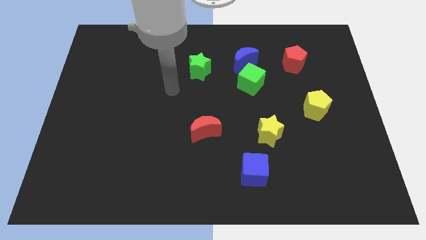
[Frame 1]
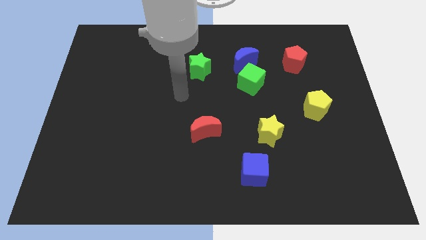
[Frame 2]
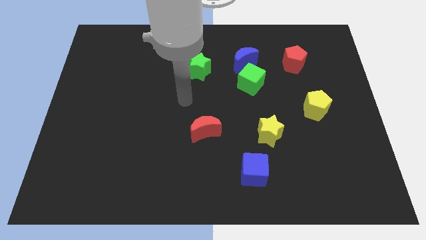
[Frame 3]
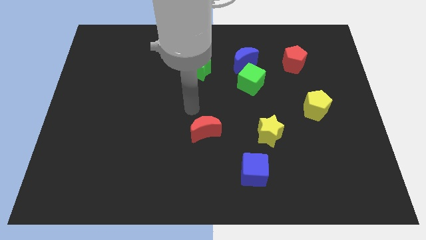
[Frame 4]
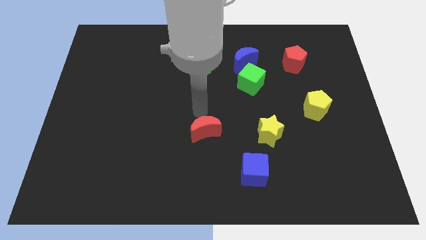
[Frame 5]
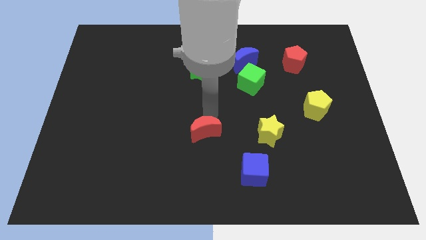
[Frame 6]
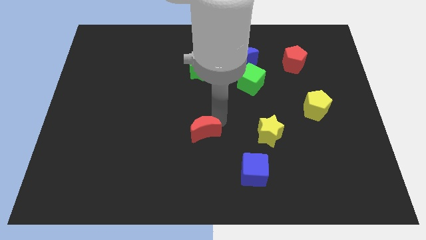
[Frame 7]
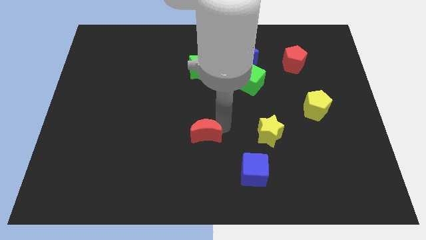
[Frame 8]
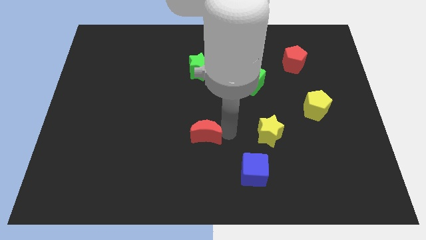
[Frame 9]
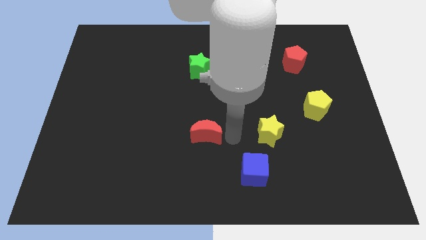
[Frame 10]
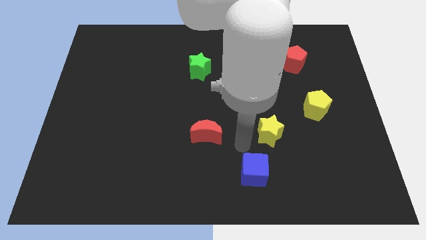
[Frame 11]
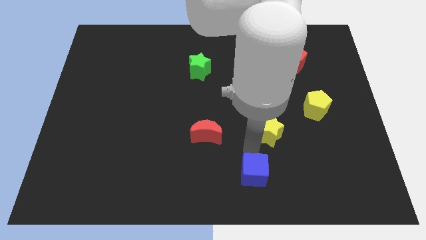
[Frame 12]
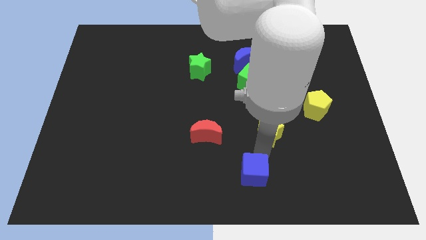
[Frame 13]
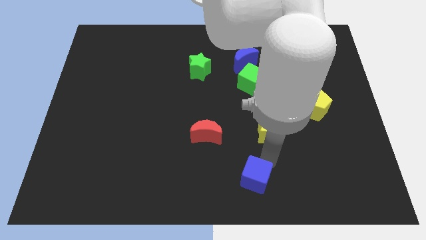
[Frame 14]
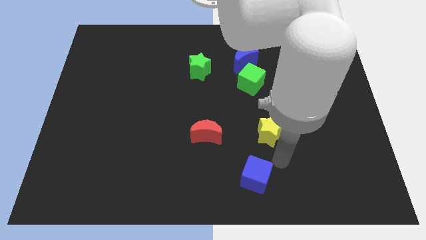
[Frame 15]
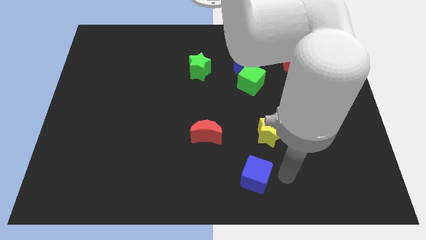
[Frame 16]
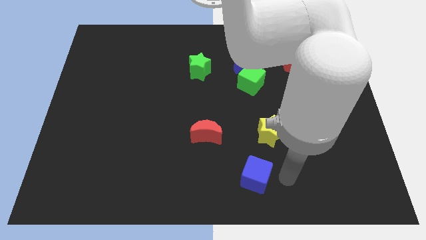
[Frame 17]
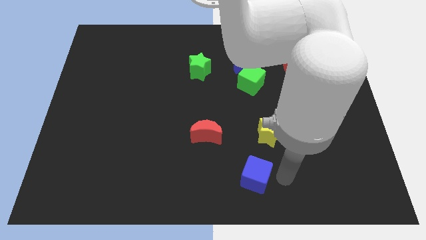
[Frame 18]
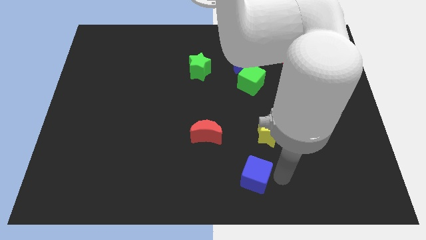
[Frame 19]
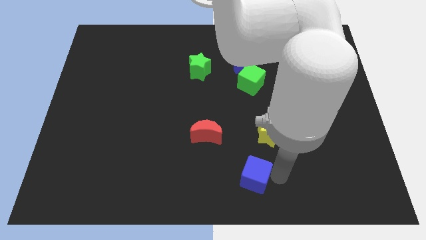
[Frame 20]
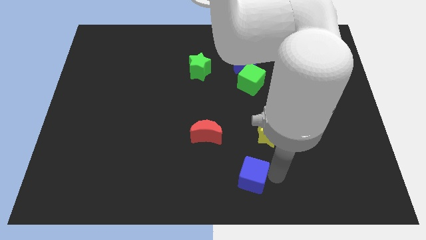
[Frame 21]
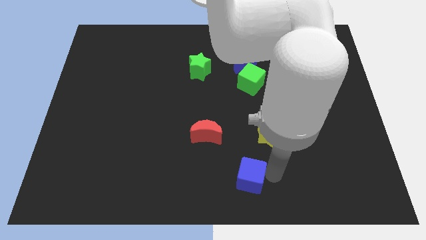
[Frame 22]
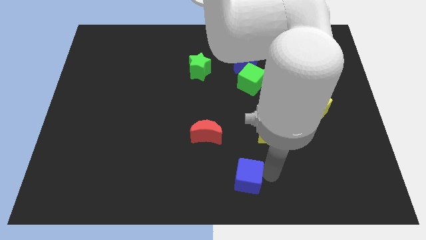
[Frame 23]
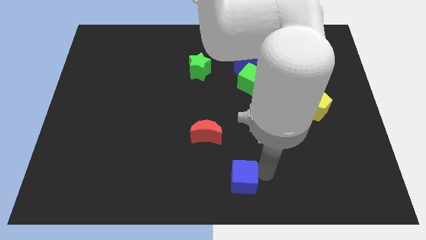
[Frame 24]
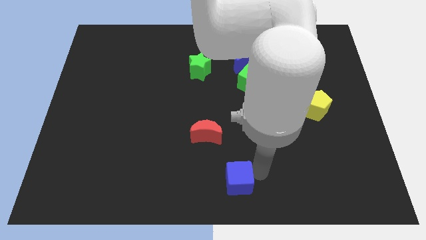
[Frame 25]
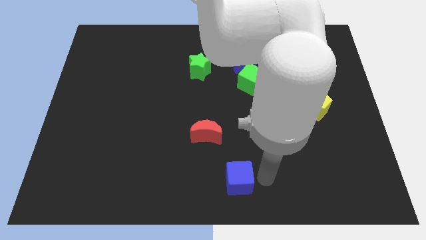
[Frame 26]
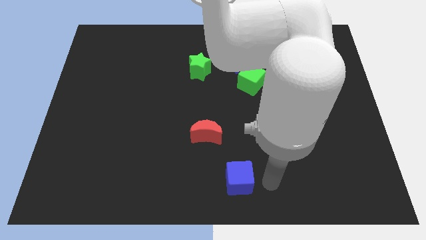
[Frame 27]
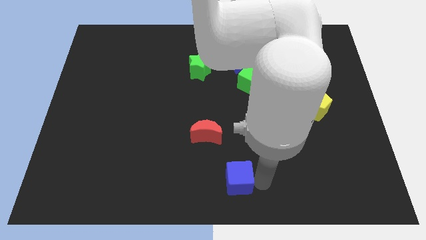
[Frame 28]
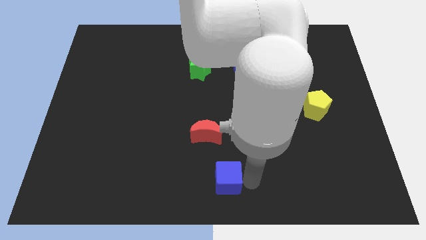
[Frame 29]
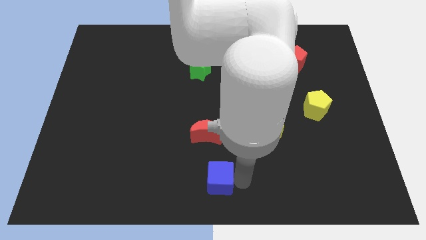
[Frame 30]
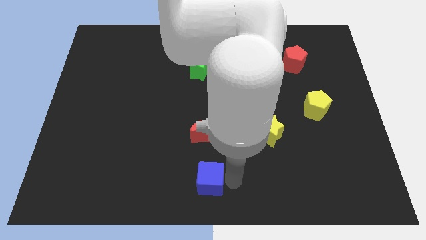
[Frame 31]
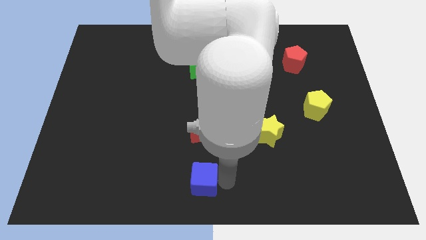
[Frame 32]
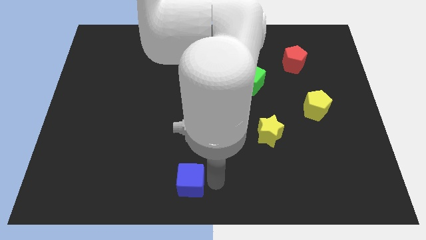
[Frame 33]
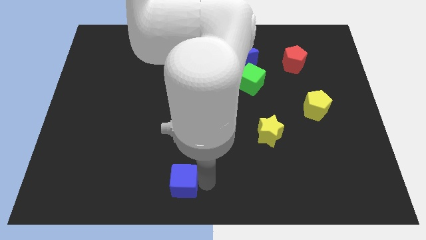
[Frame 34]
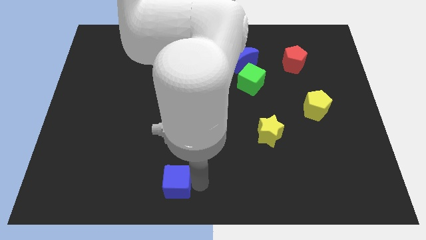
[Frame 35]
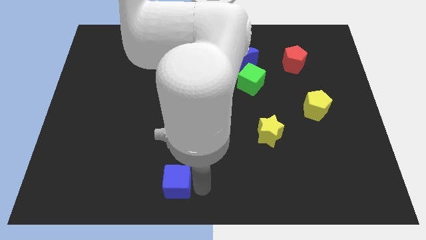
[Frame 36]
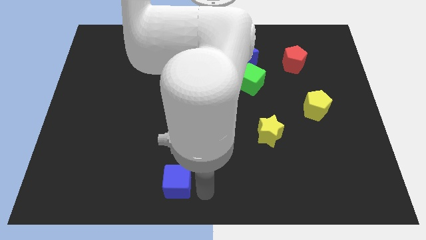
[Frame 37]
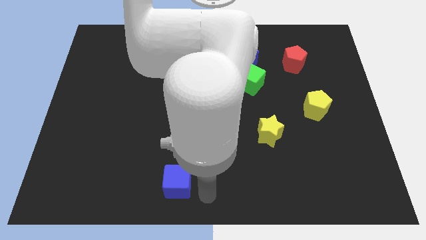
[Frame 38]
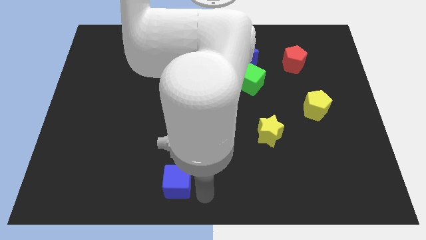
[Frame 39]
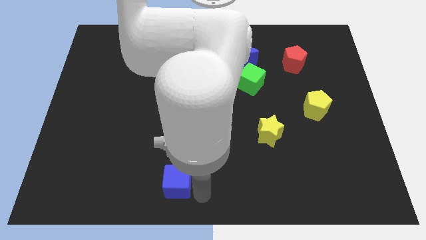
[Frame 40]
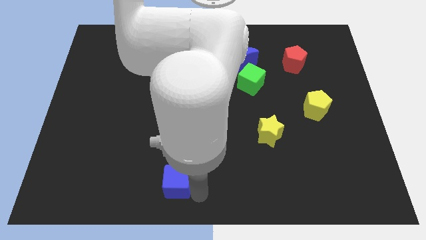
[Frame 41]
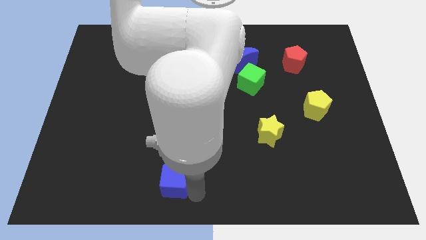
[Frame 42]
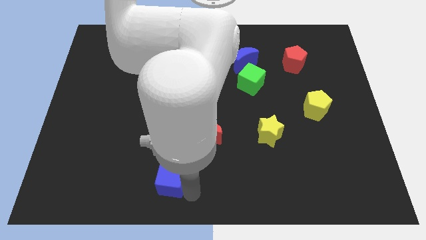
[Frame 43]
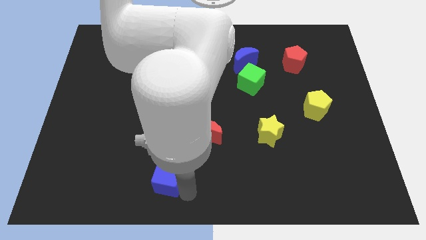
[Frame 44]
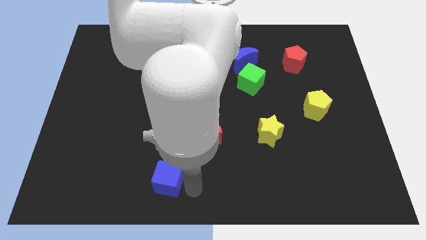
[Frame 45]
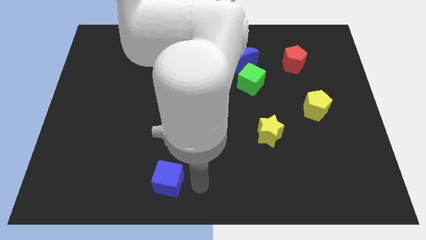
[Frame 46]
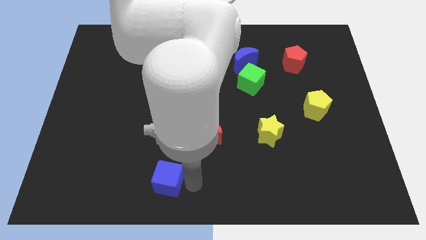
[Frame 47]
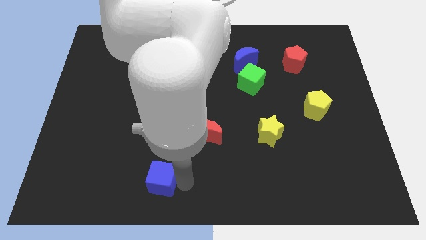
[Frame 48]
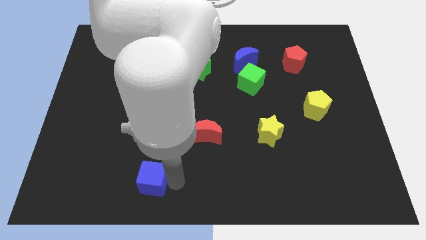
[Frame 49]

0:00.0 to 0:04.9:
push the blue cube left

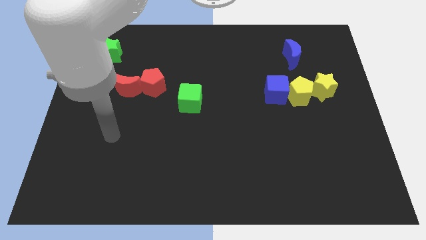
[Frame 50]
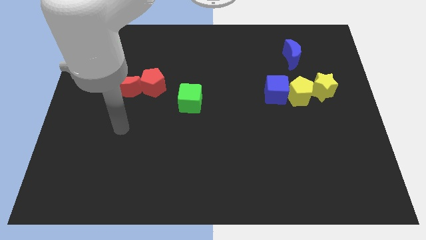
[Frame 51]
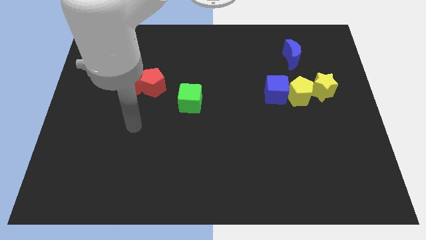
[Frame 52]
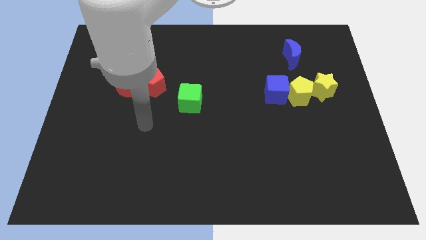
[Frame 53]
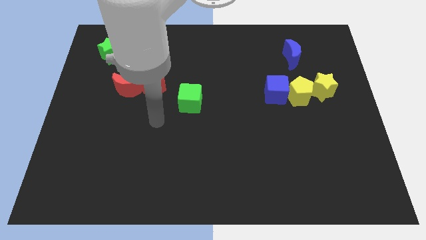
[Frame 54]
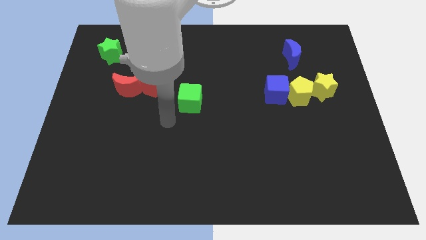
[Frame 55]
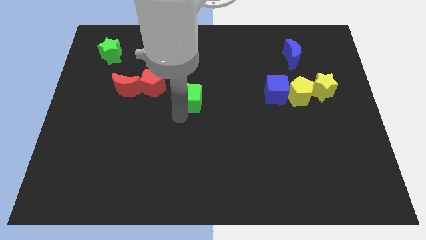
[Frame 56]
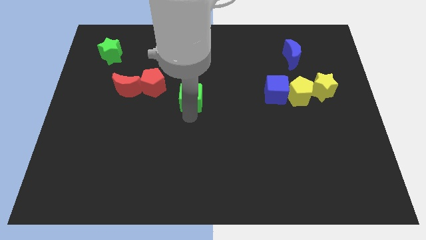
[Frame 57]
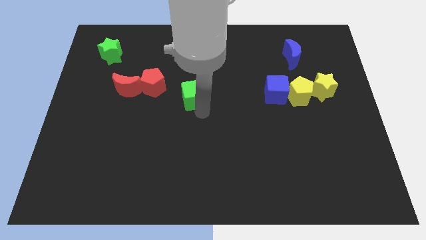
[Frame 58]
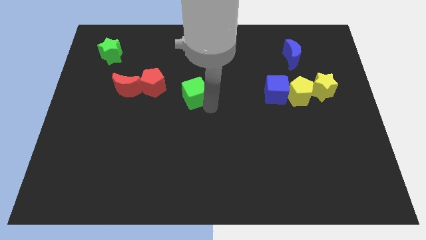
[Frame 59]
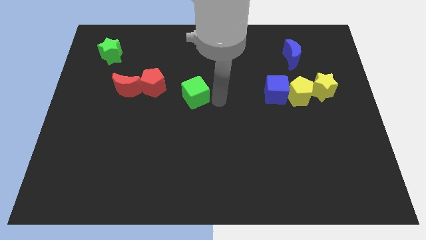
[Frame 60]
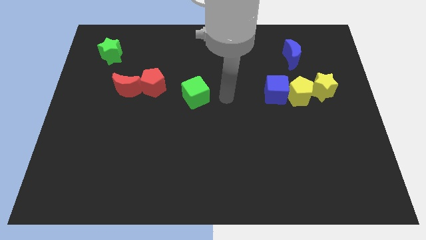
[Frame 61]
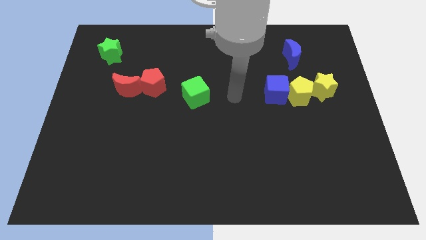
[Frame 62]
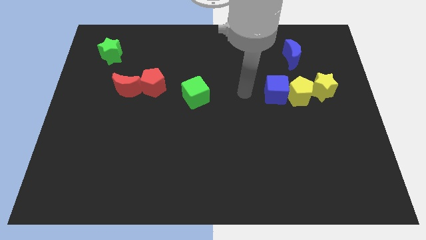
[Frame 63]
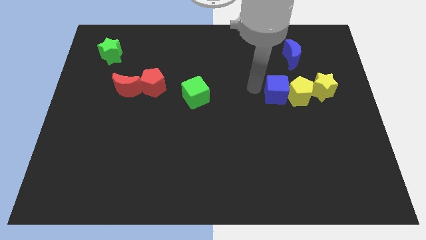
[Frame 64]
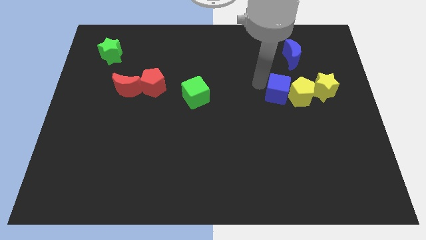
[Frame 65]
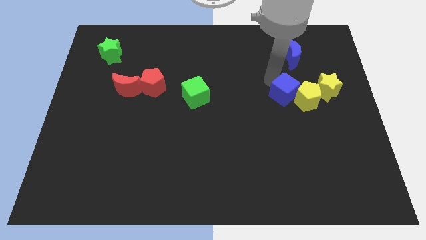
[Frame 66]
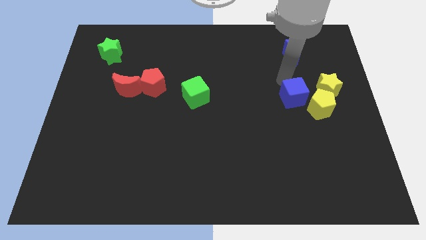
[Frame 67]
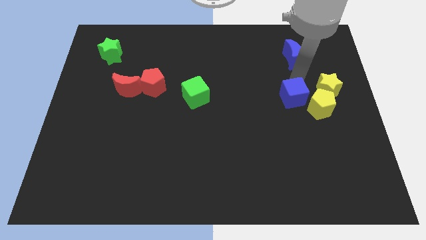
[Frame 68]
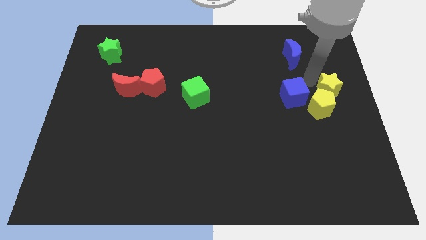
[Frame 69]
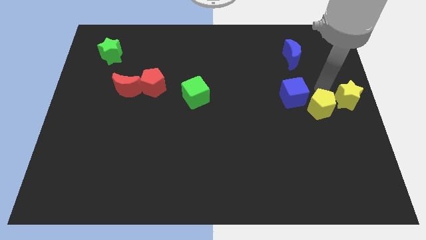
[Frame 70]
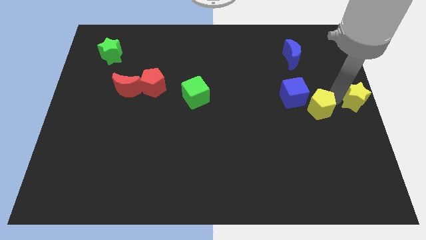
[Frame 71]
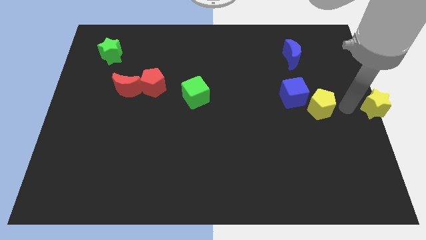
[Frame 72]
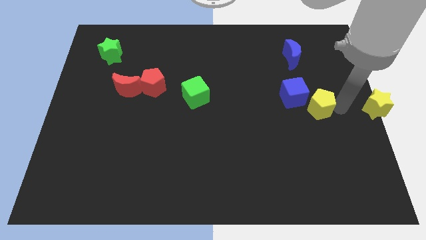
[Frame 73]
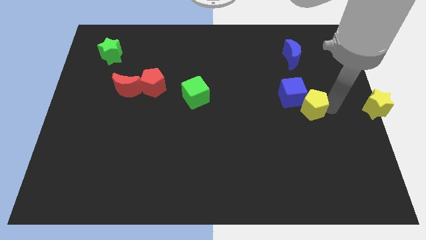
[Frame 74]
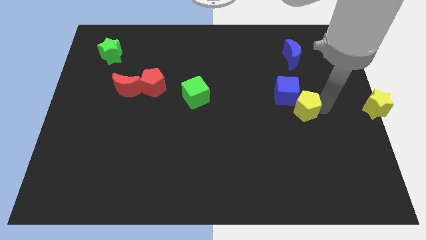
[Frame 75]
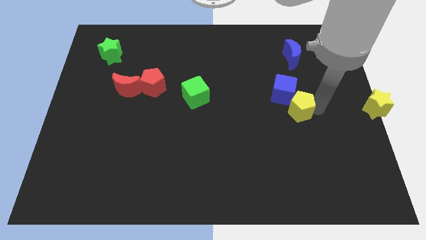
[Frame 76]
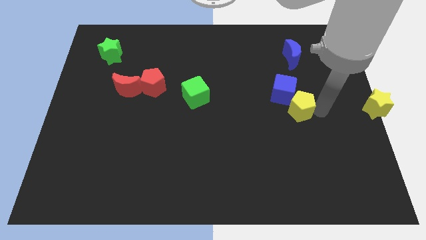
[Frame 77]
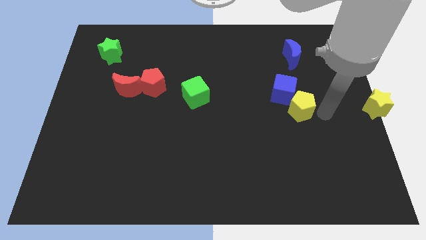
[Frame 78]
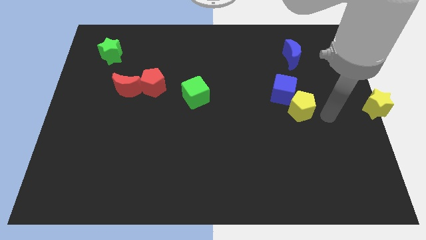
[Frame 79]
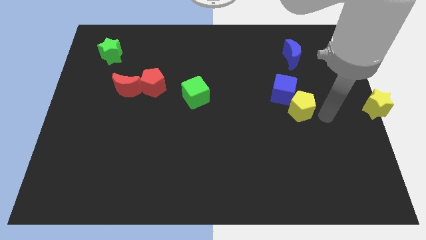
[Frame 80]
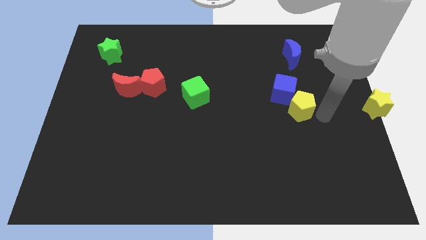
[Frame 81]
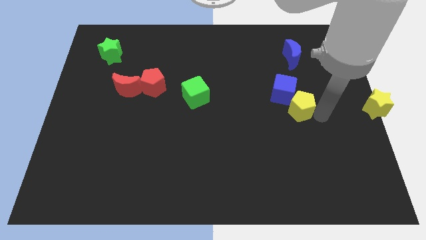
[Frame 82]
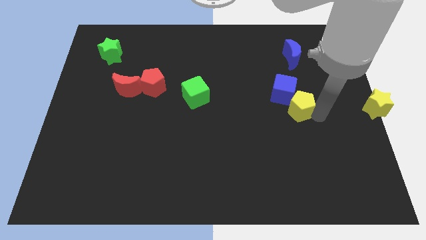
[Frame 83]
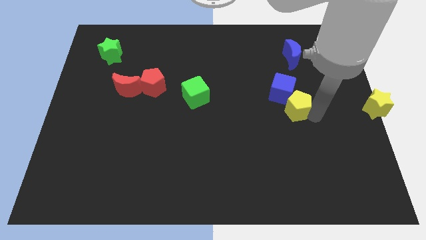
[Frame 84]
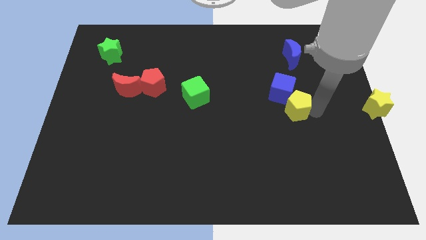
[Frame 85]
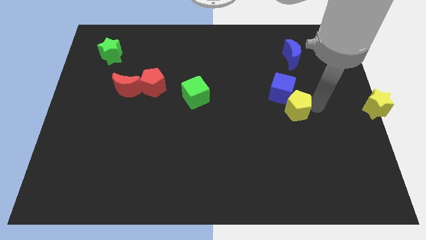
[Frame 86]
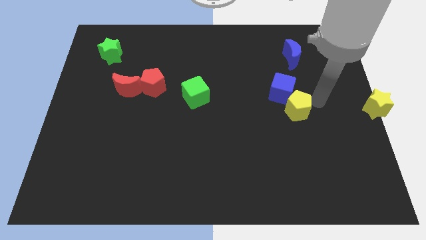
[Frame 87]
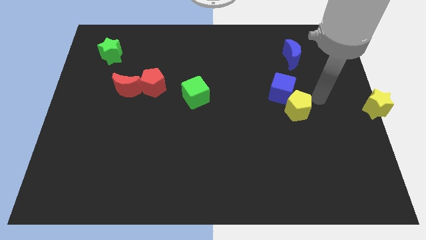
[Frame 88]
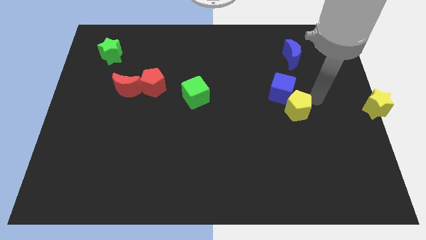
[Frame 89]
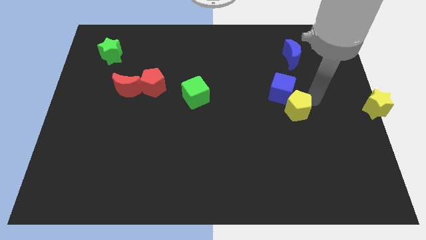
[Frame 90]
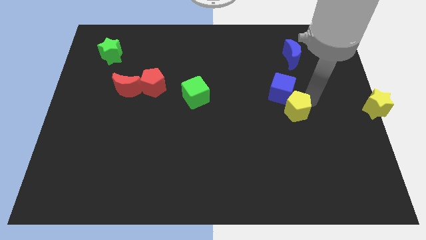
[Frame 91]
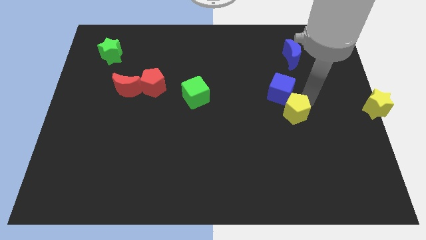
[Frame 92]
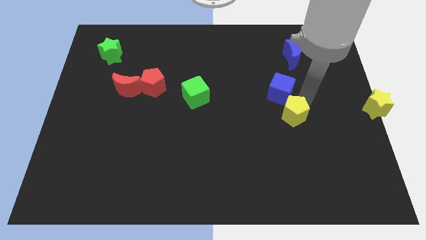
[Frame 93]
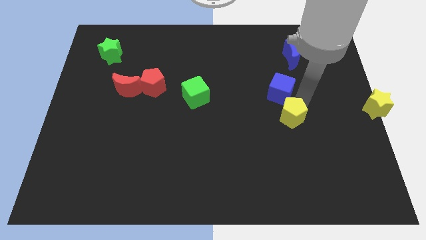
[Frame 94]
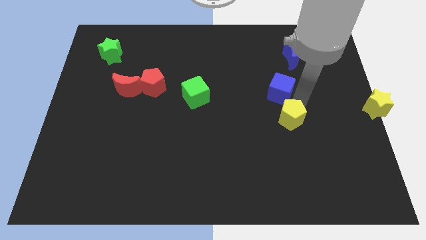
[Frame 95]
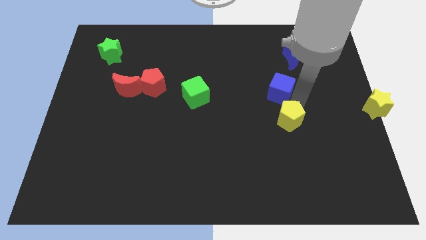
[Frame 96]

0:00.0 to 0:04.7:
push the yellow pentagon slightly downwards and left
